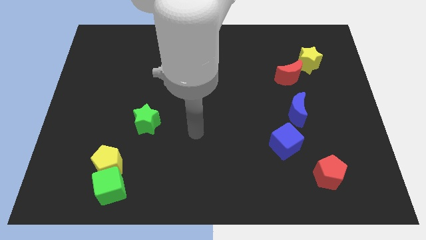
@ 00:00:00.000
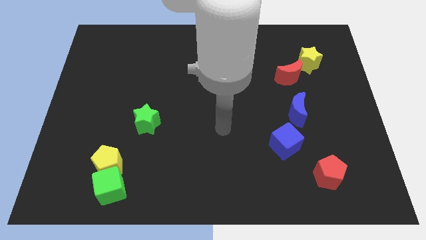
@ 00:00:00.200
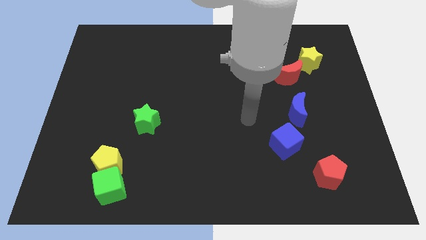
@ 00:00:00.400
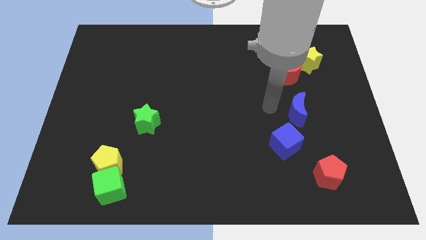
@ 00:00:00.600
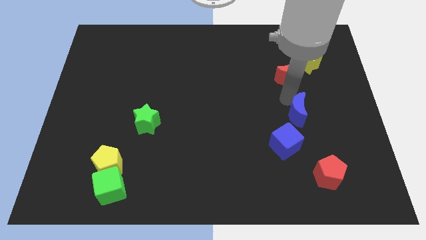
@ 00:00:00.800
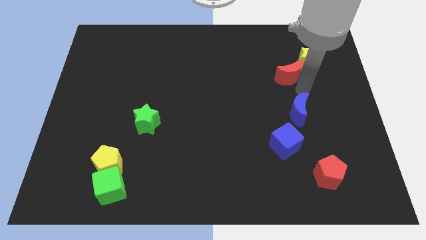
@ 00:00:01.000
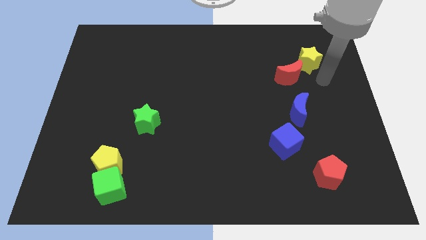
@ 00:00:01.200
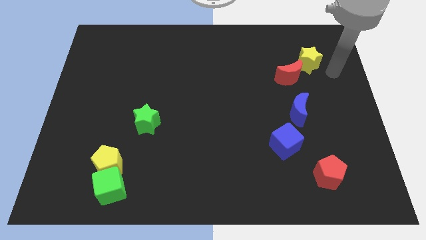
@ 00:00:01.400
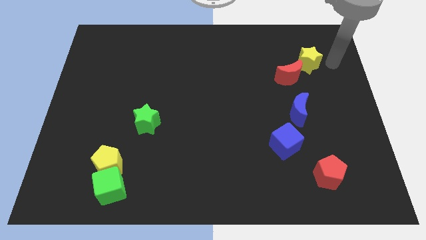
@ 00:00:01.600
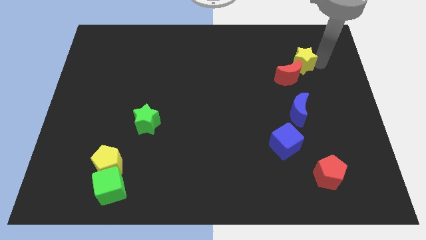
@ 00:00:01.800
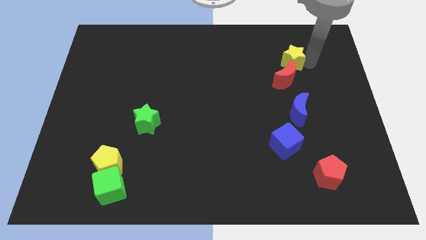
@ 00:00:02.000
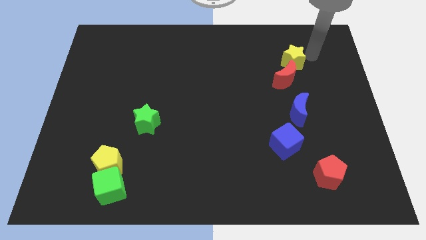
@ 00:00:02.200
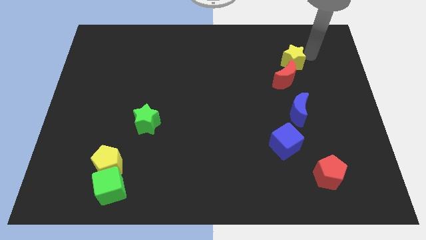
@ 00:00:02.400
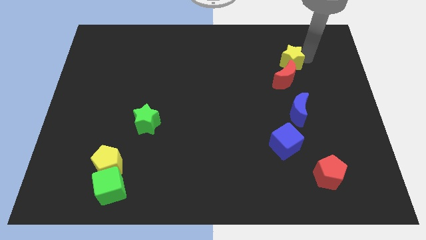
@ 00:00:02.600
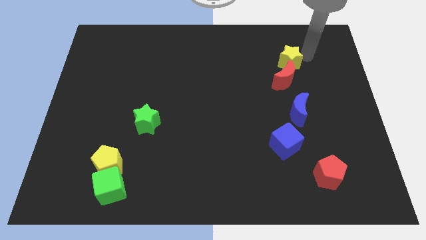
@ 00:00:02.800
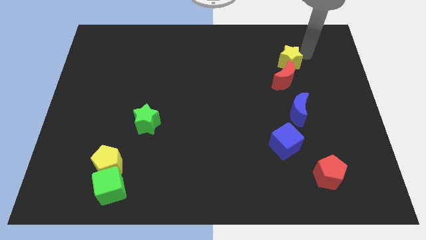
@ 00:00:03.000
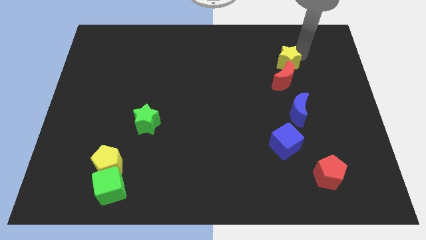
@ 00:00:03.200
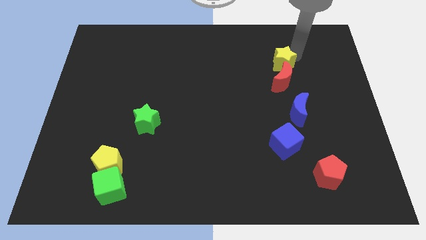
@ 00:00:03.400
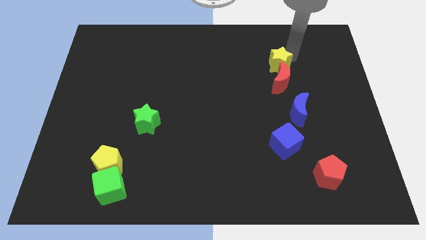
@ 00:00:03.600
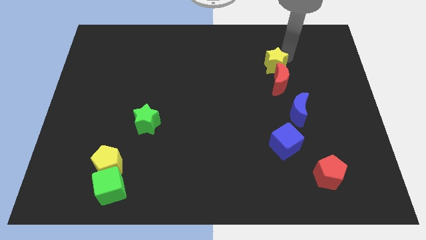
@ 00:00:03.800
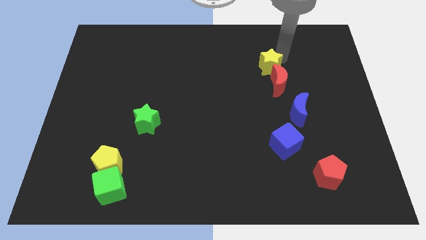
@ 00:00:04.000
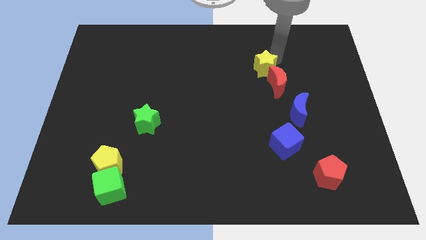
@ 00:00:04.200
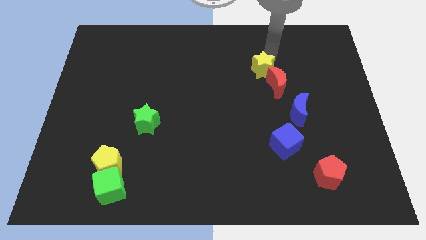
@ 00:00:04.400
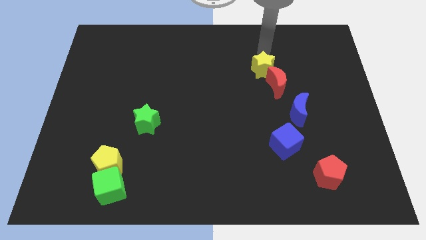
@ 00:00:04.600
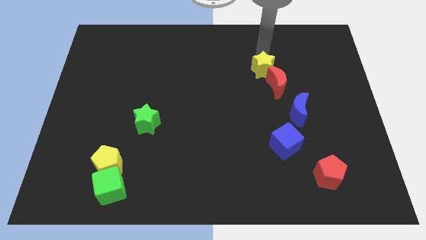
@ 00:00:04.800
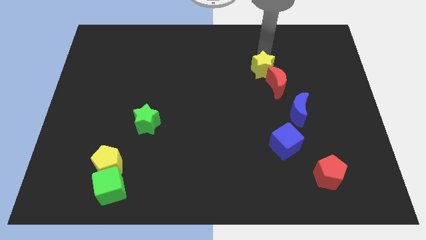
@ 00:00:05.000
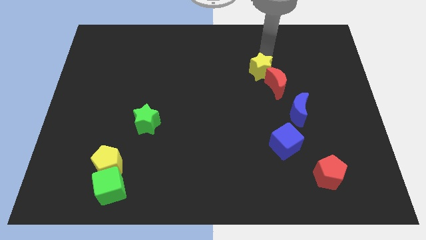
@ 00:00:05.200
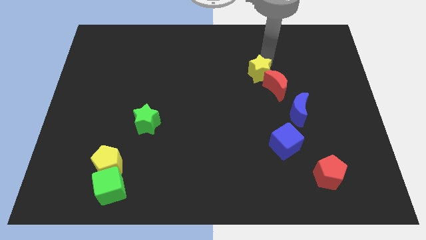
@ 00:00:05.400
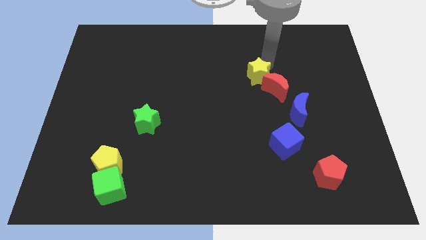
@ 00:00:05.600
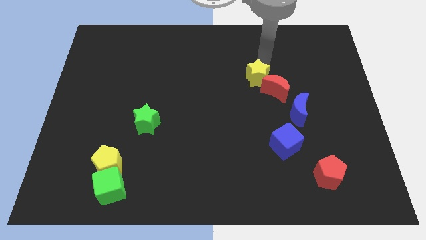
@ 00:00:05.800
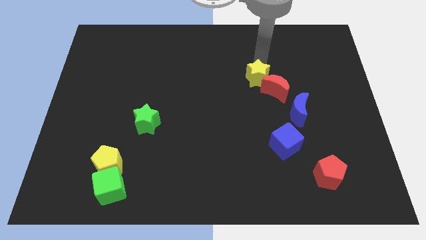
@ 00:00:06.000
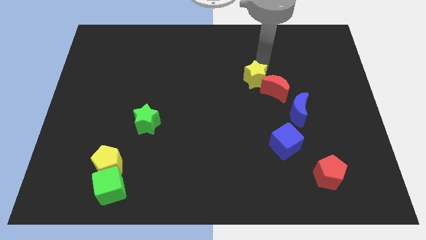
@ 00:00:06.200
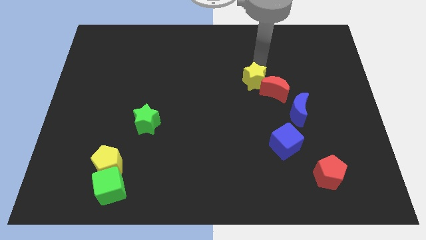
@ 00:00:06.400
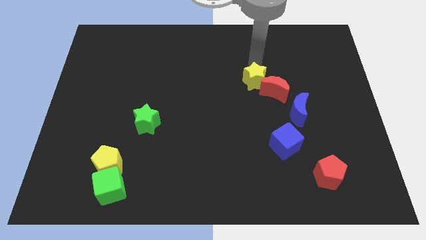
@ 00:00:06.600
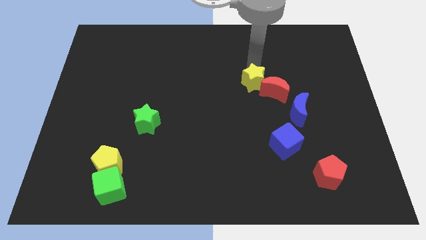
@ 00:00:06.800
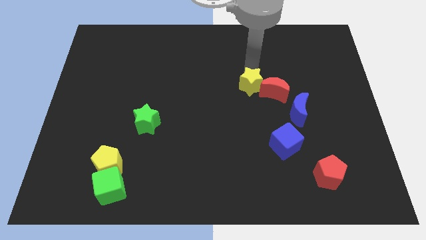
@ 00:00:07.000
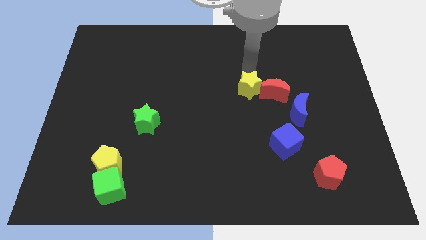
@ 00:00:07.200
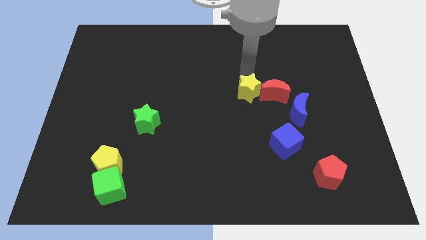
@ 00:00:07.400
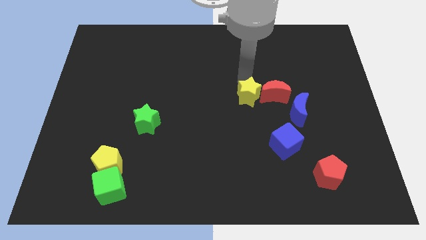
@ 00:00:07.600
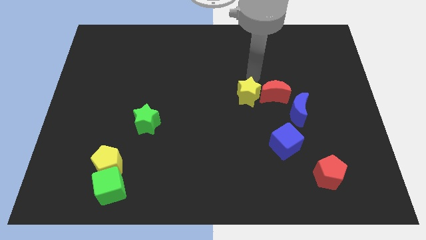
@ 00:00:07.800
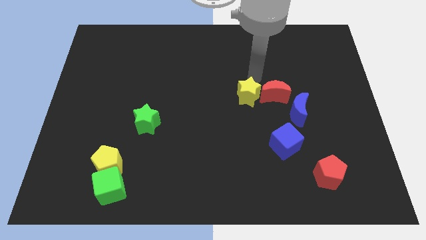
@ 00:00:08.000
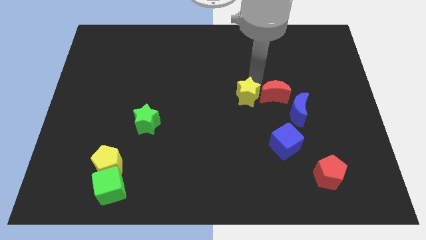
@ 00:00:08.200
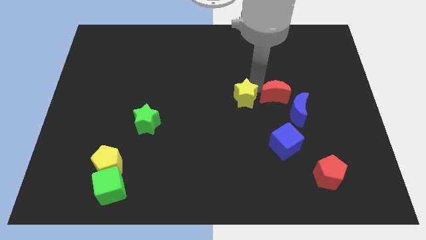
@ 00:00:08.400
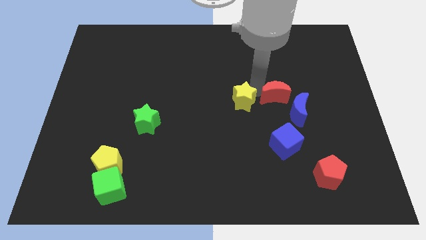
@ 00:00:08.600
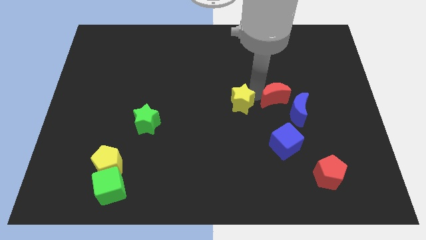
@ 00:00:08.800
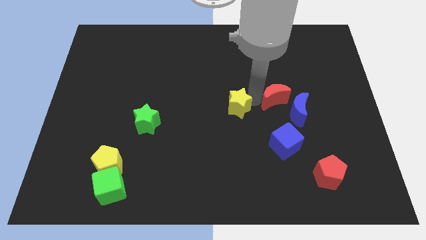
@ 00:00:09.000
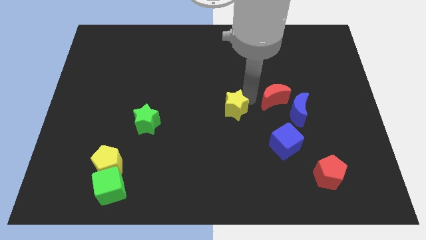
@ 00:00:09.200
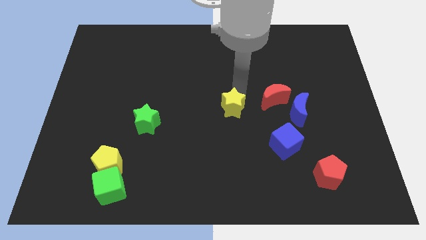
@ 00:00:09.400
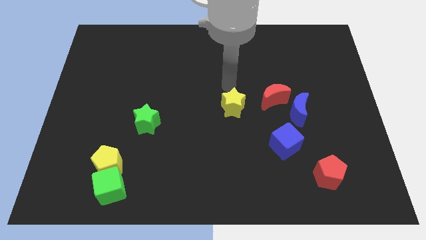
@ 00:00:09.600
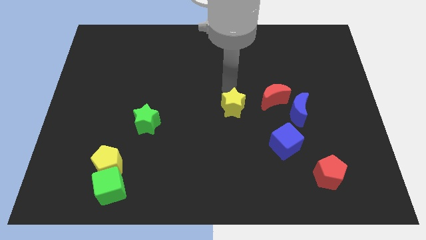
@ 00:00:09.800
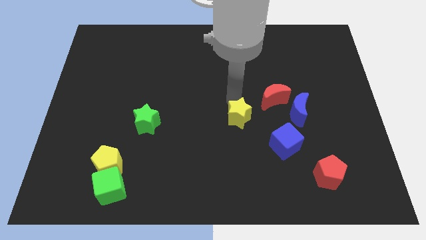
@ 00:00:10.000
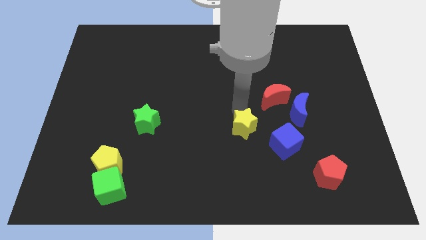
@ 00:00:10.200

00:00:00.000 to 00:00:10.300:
push the yellow star to the left side of the blue cube

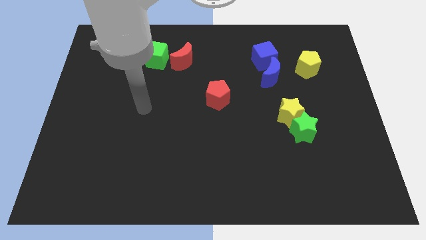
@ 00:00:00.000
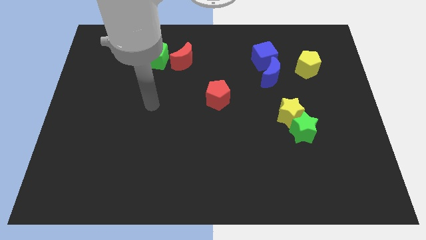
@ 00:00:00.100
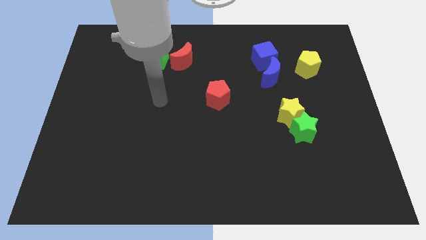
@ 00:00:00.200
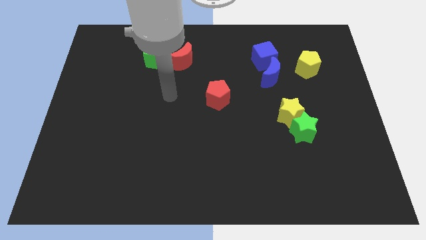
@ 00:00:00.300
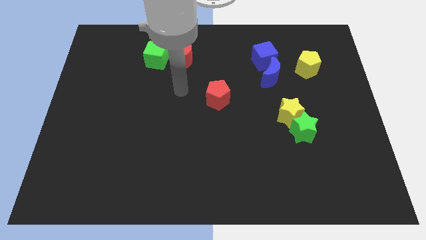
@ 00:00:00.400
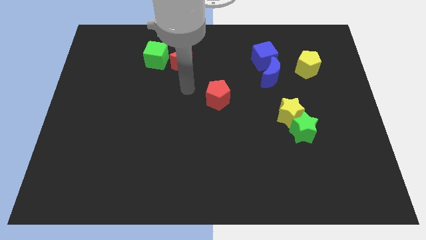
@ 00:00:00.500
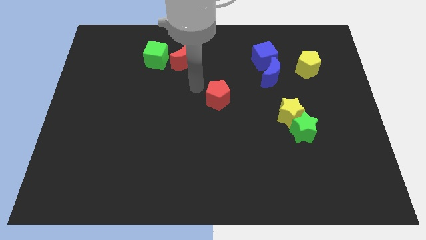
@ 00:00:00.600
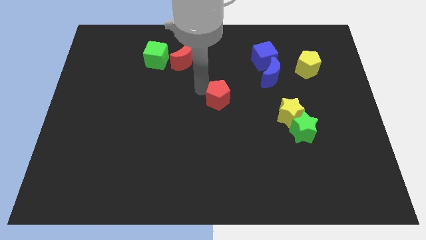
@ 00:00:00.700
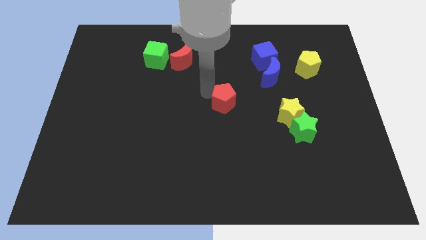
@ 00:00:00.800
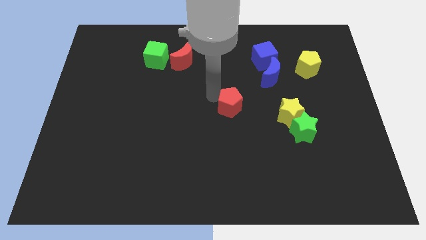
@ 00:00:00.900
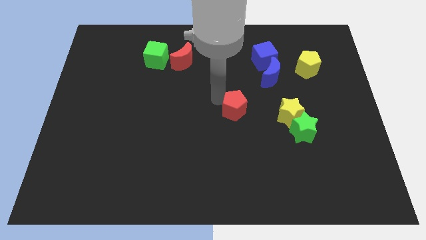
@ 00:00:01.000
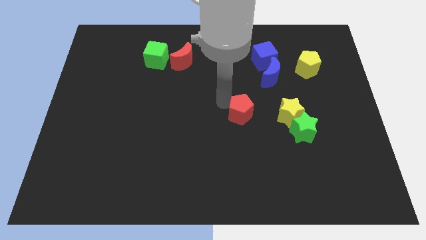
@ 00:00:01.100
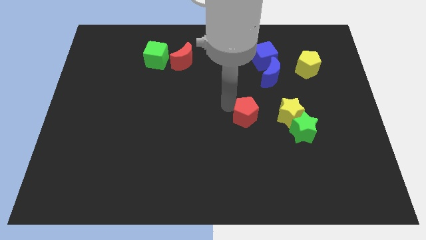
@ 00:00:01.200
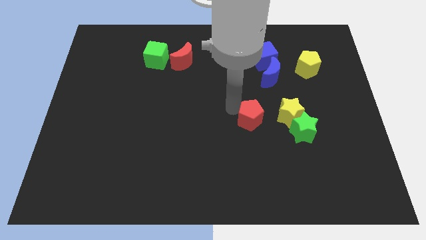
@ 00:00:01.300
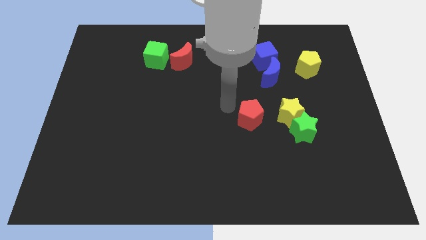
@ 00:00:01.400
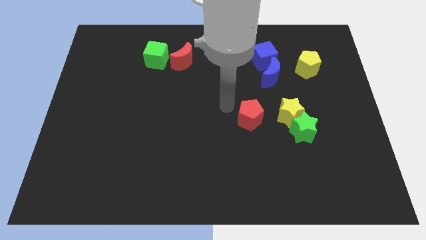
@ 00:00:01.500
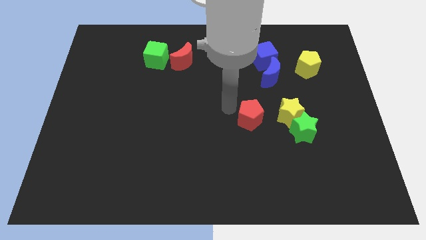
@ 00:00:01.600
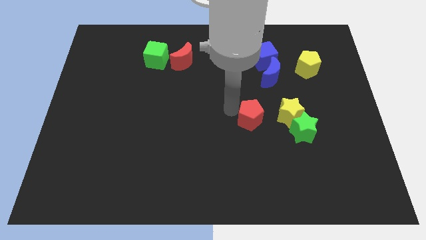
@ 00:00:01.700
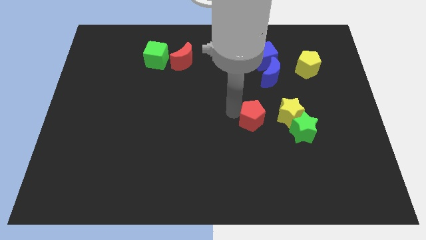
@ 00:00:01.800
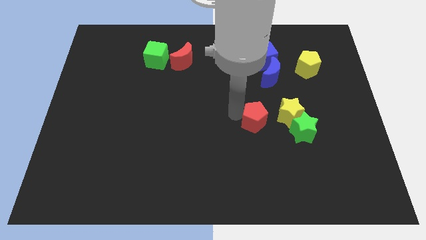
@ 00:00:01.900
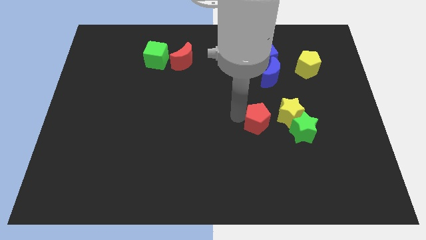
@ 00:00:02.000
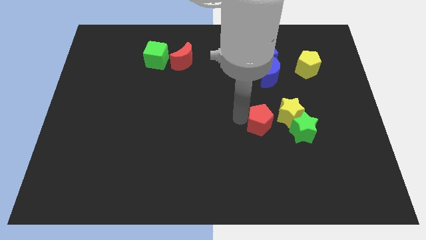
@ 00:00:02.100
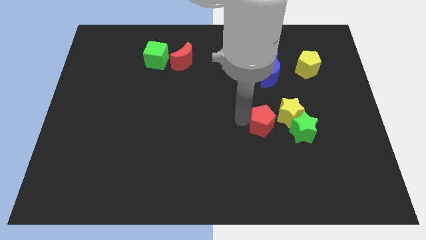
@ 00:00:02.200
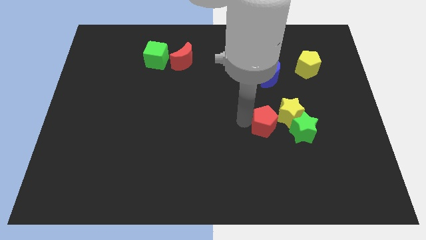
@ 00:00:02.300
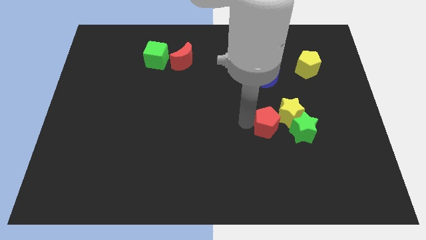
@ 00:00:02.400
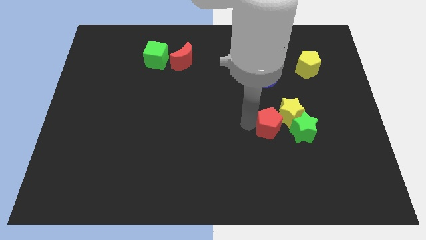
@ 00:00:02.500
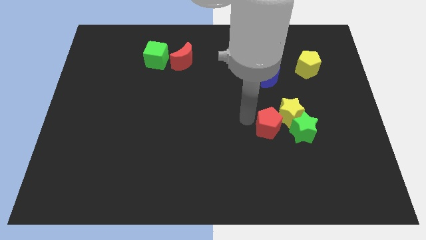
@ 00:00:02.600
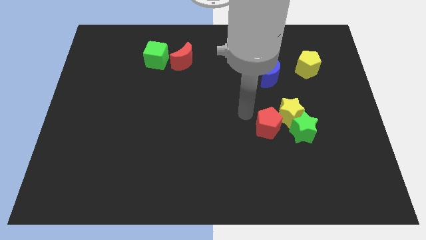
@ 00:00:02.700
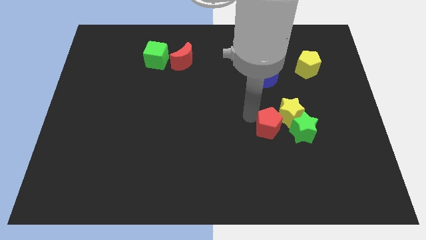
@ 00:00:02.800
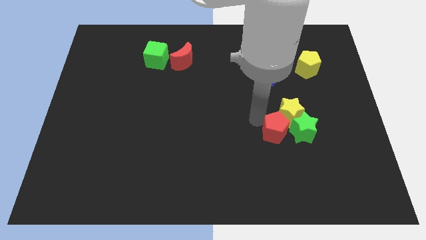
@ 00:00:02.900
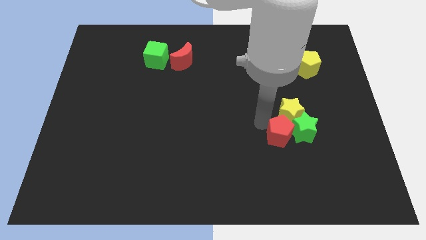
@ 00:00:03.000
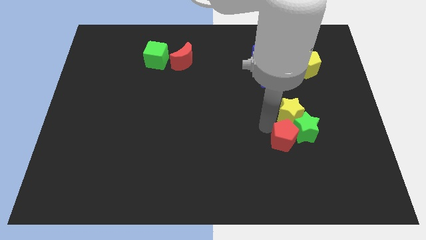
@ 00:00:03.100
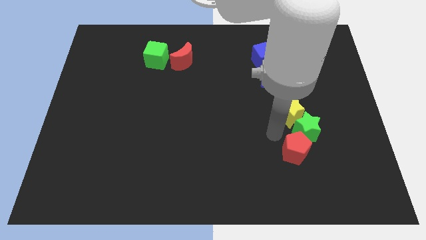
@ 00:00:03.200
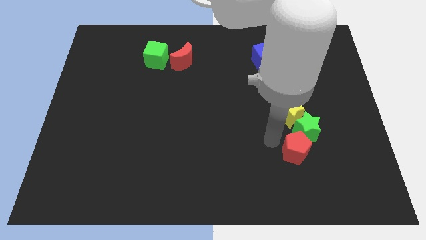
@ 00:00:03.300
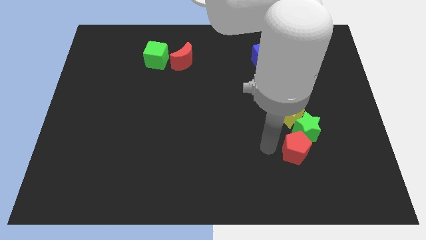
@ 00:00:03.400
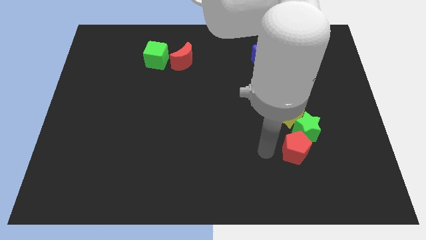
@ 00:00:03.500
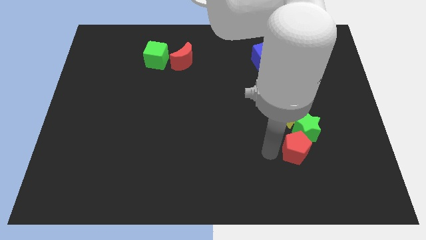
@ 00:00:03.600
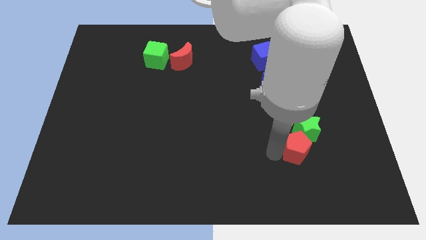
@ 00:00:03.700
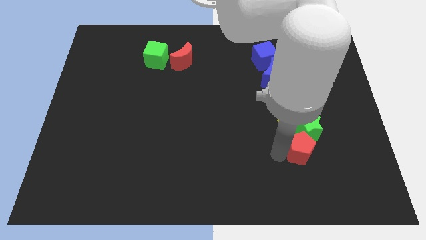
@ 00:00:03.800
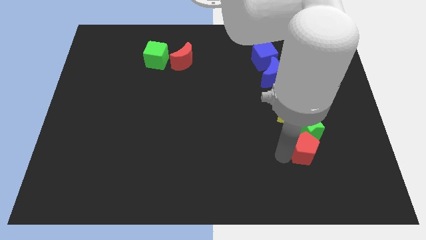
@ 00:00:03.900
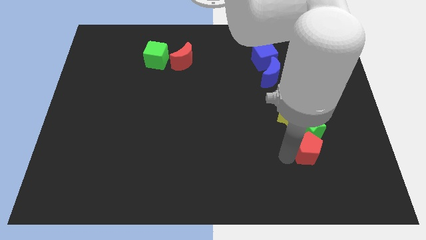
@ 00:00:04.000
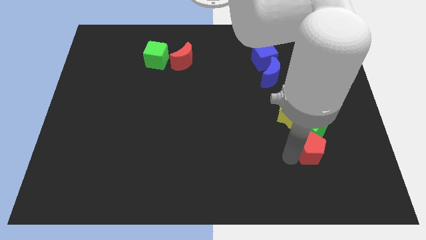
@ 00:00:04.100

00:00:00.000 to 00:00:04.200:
put the red pentagon to the bottom right of the green star
